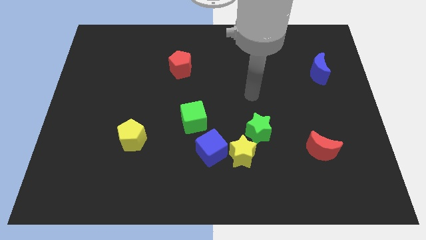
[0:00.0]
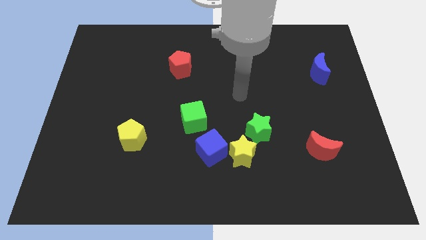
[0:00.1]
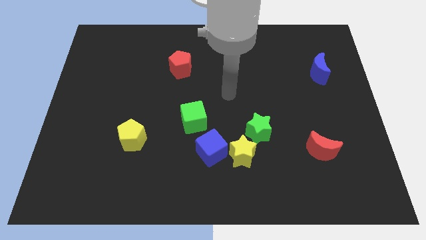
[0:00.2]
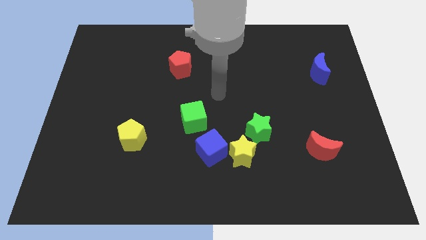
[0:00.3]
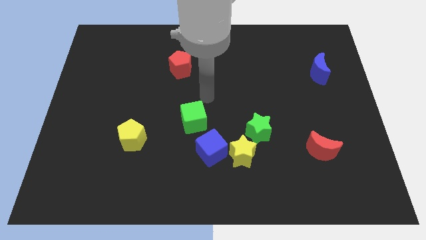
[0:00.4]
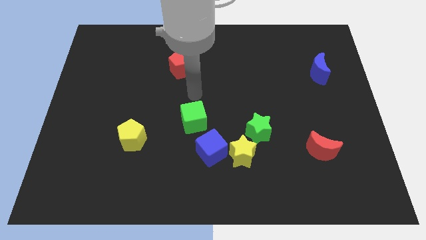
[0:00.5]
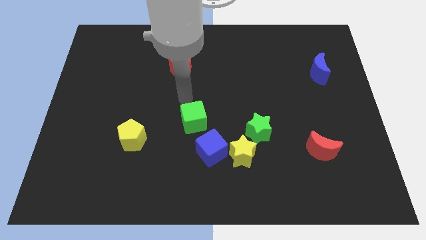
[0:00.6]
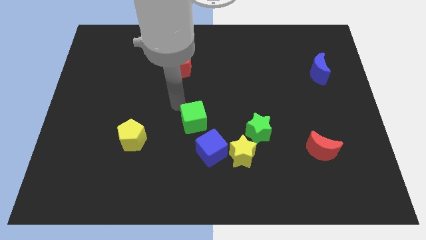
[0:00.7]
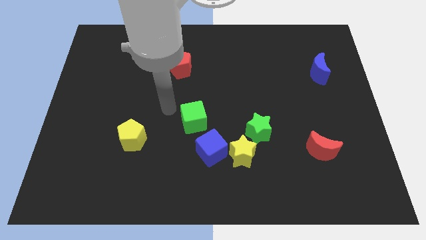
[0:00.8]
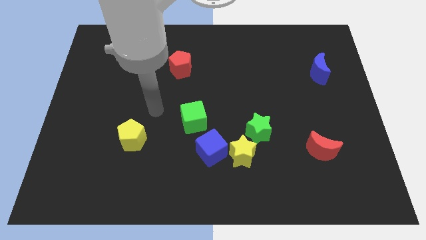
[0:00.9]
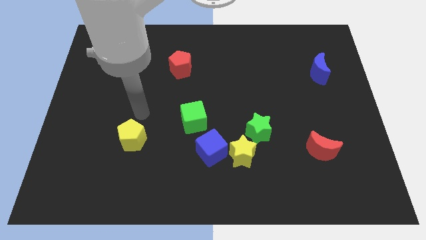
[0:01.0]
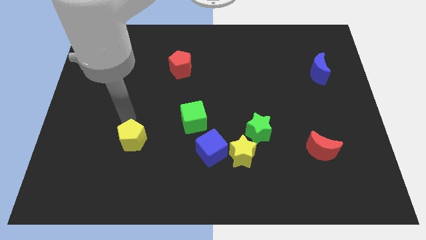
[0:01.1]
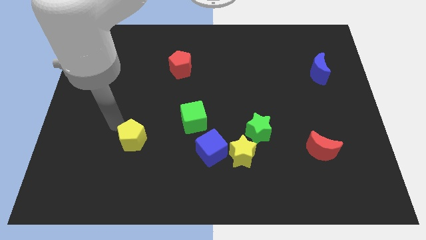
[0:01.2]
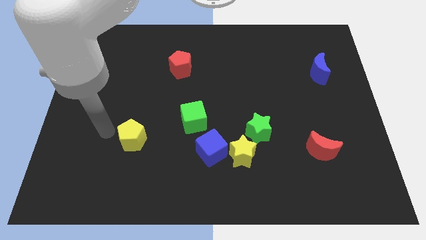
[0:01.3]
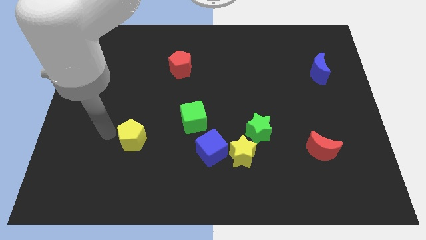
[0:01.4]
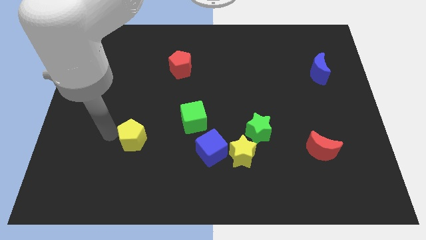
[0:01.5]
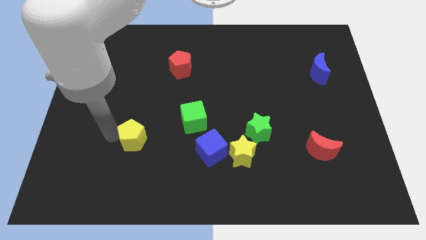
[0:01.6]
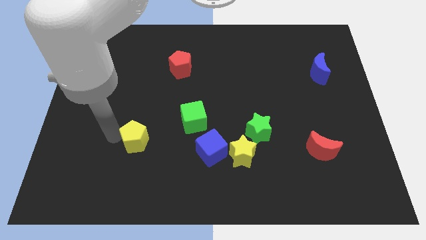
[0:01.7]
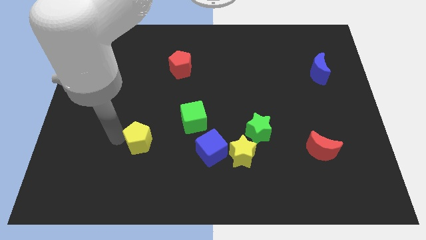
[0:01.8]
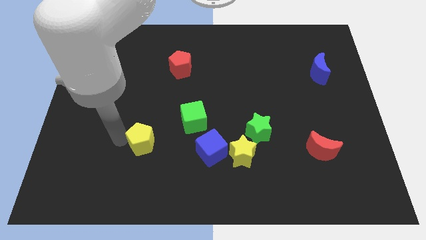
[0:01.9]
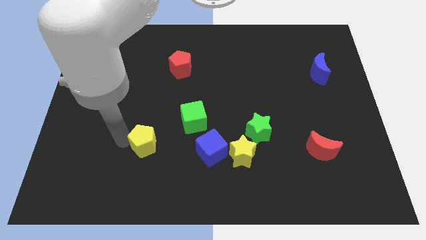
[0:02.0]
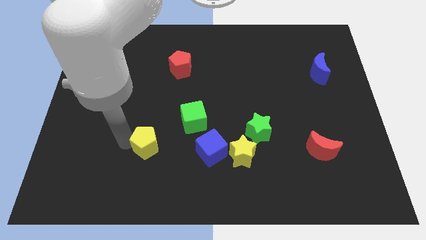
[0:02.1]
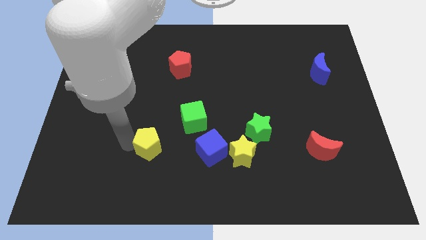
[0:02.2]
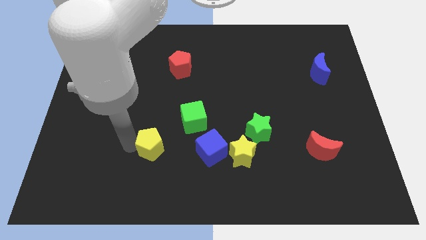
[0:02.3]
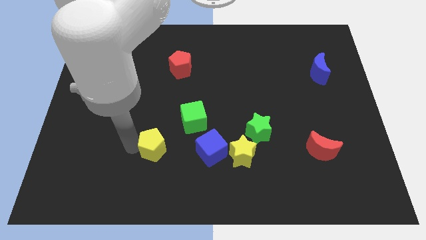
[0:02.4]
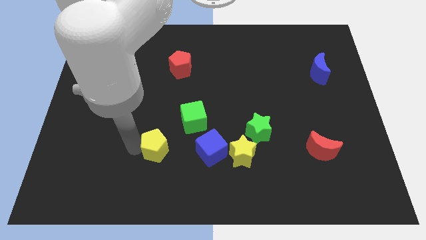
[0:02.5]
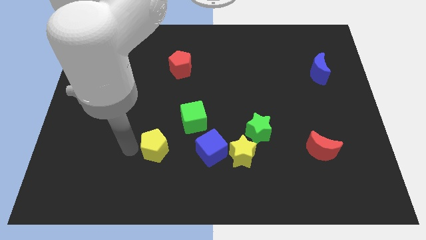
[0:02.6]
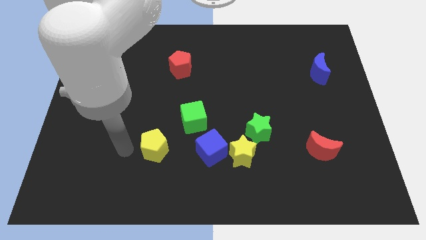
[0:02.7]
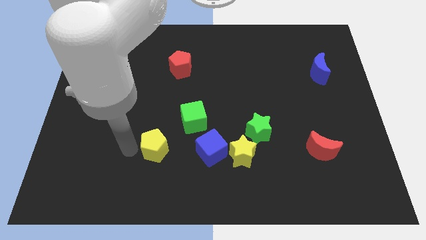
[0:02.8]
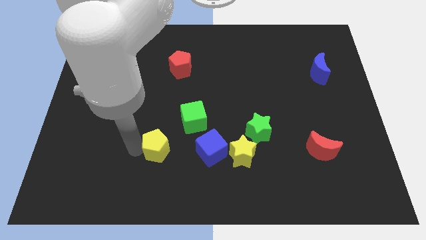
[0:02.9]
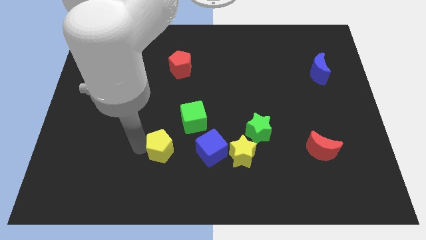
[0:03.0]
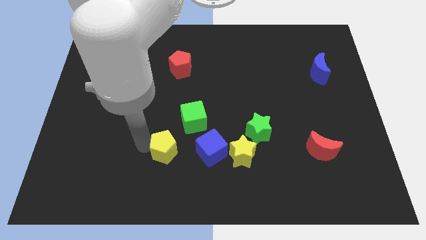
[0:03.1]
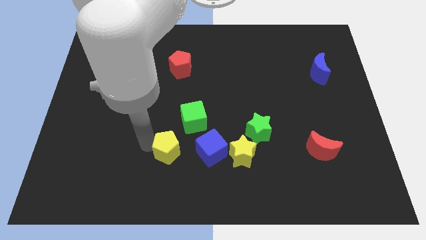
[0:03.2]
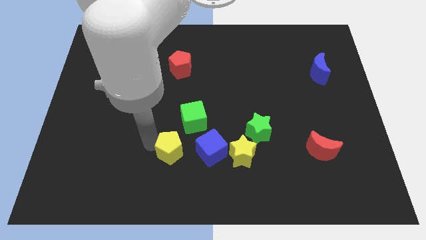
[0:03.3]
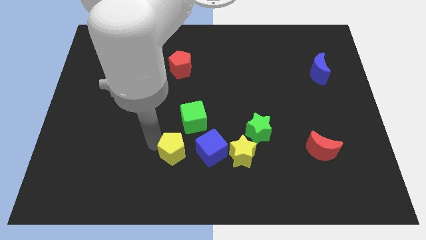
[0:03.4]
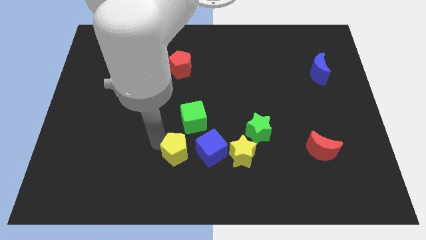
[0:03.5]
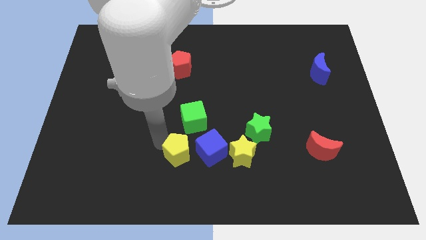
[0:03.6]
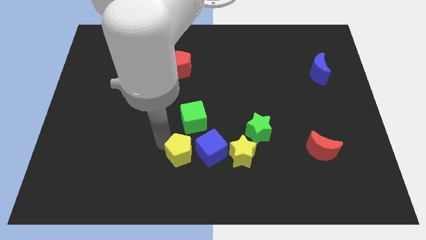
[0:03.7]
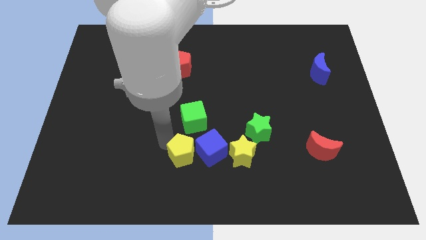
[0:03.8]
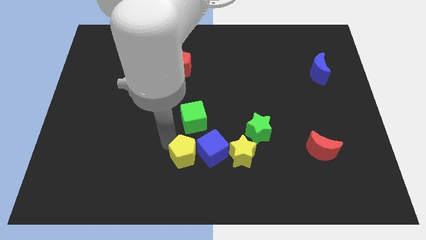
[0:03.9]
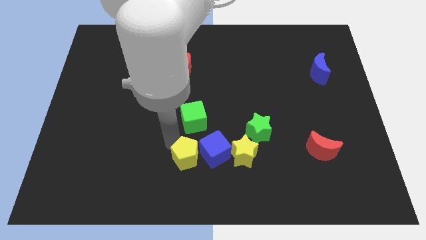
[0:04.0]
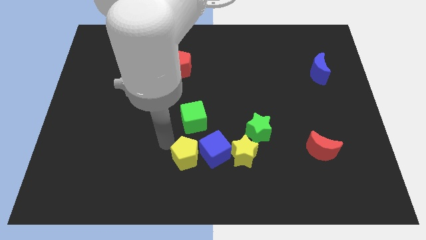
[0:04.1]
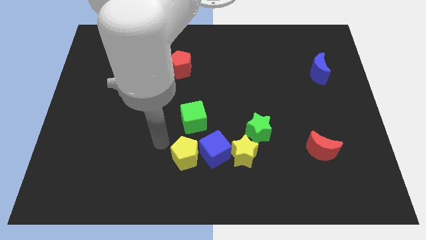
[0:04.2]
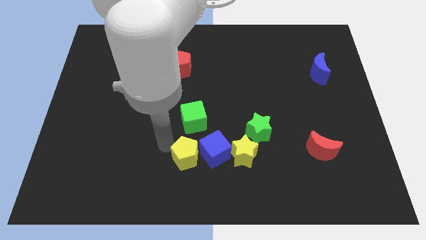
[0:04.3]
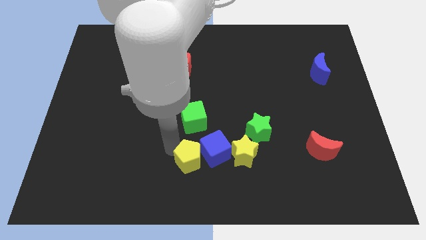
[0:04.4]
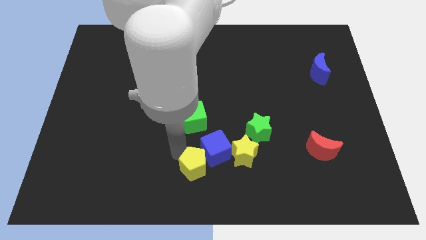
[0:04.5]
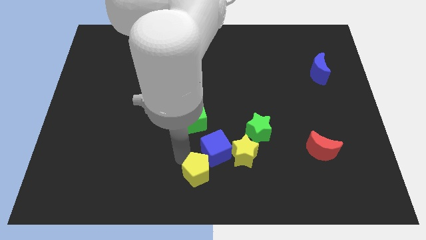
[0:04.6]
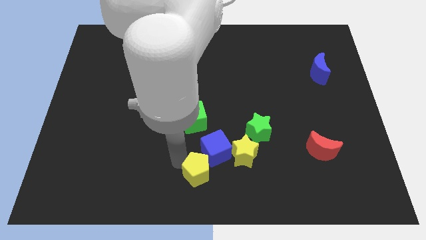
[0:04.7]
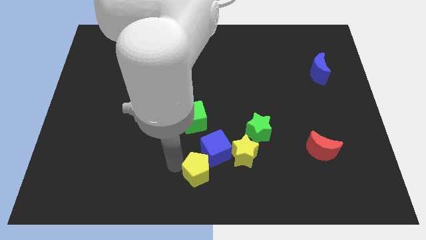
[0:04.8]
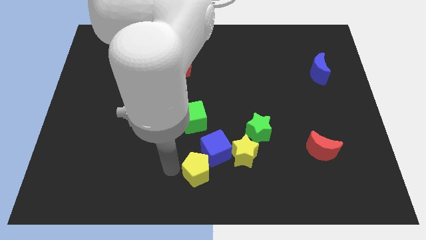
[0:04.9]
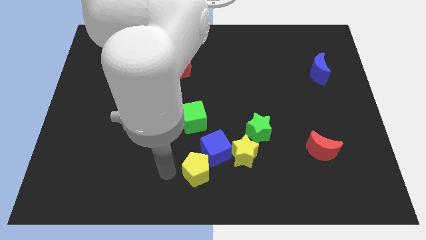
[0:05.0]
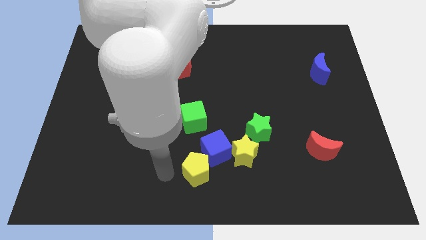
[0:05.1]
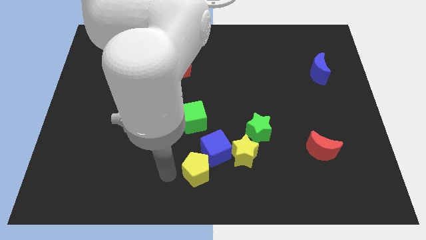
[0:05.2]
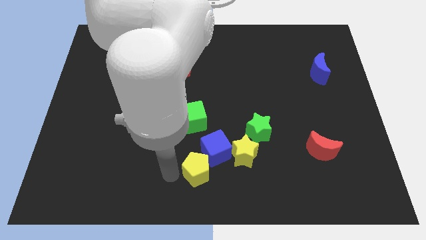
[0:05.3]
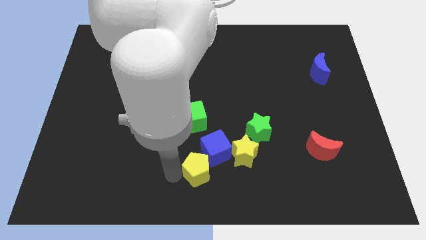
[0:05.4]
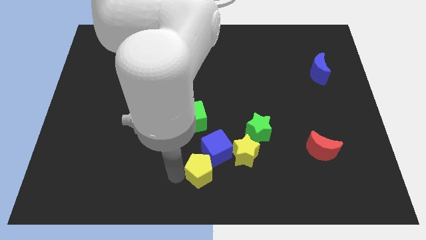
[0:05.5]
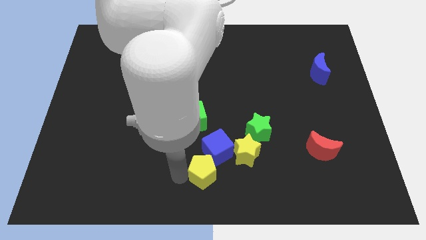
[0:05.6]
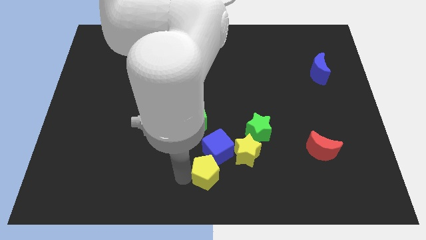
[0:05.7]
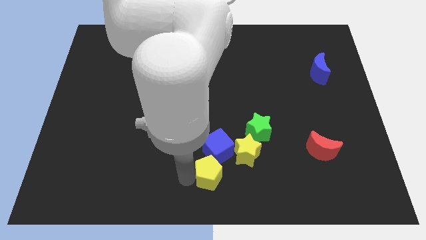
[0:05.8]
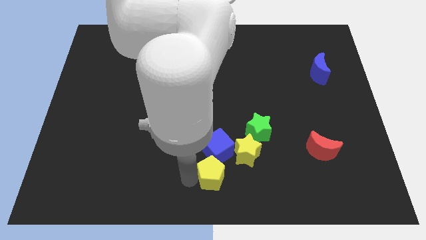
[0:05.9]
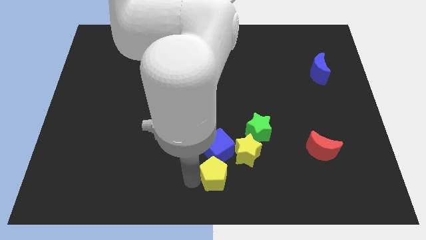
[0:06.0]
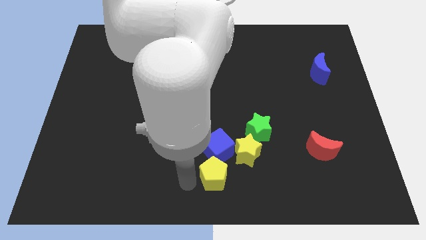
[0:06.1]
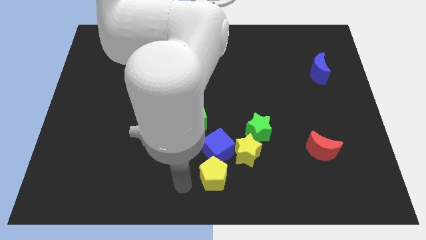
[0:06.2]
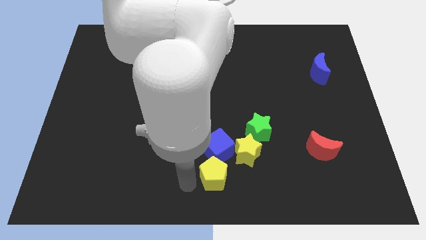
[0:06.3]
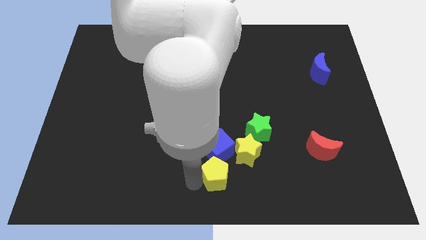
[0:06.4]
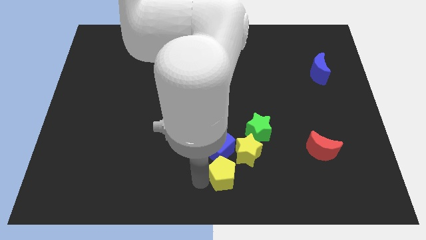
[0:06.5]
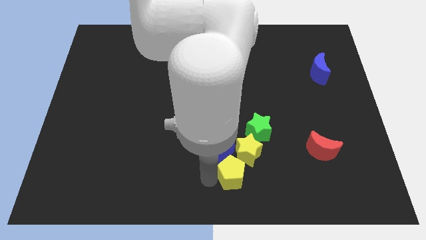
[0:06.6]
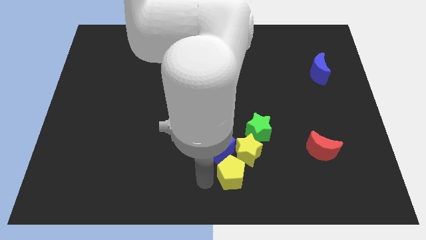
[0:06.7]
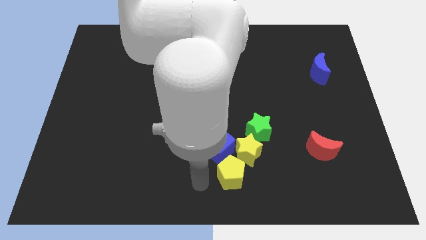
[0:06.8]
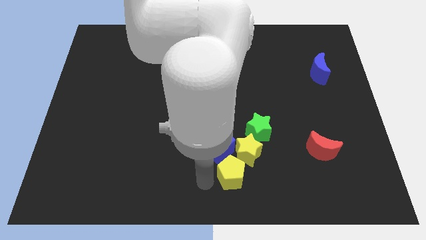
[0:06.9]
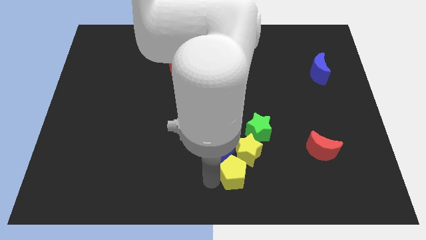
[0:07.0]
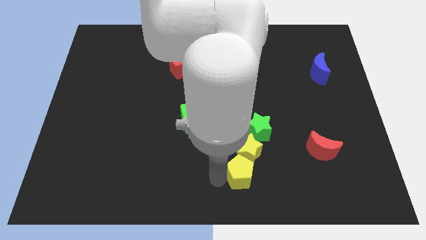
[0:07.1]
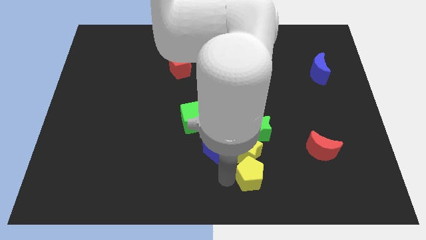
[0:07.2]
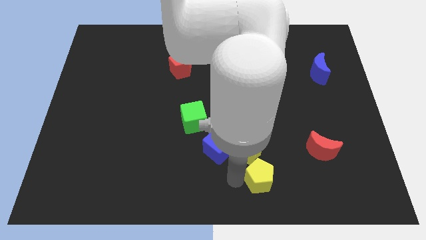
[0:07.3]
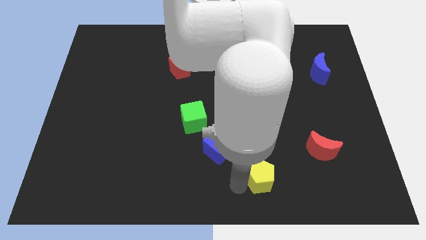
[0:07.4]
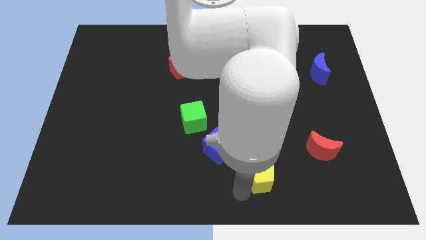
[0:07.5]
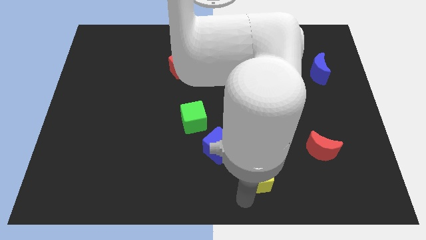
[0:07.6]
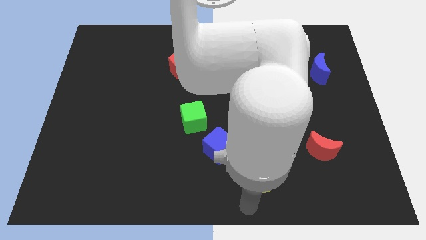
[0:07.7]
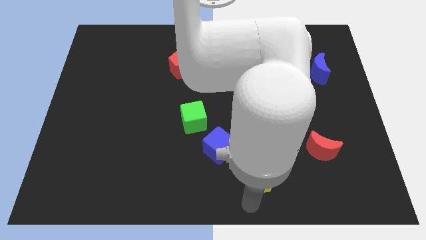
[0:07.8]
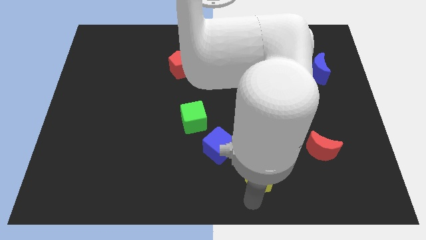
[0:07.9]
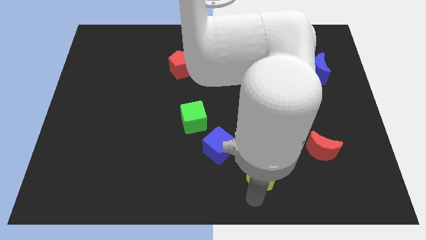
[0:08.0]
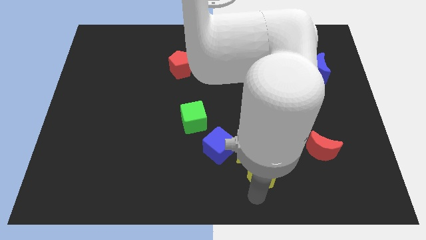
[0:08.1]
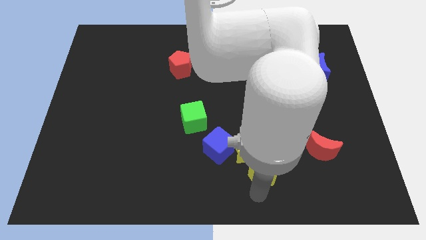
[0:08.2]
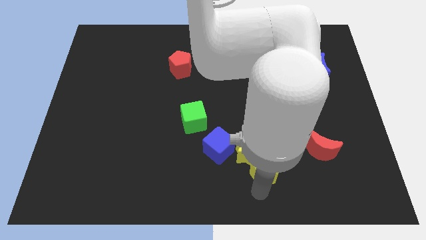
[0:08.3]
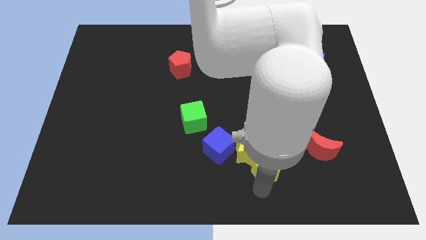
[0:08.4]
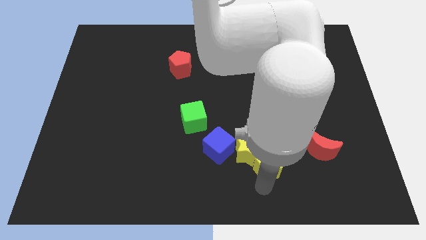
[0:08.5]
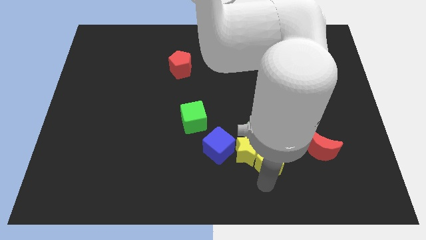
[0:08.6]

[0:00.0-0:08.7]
push the yellow pentagon to the bottom right of the green star
